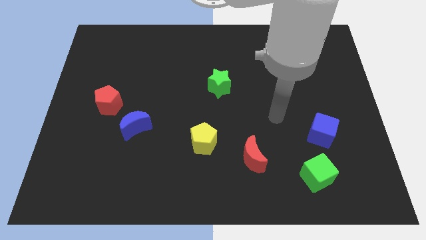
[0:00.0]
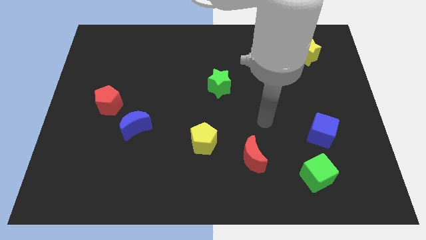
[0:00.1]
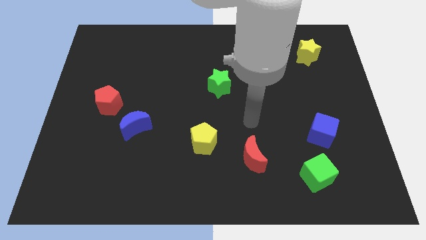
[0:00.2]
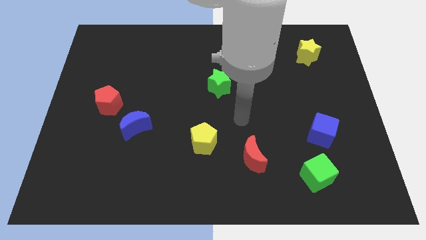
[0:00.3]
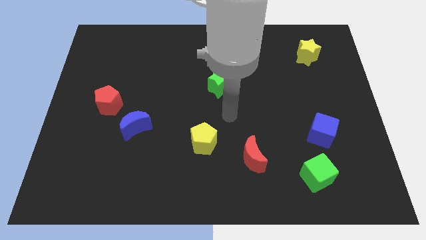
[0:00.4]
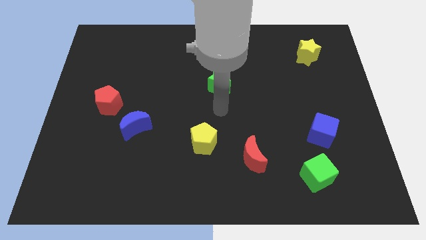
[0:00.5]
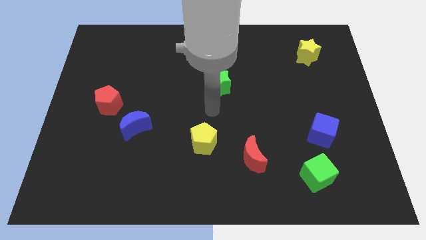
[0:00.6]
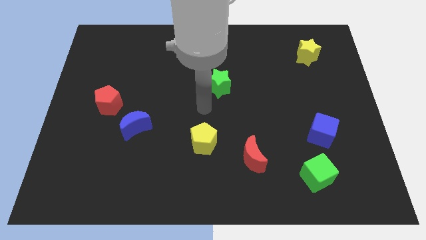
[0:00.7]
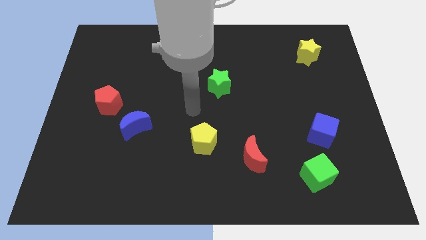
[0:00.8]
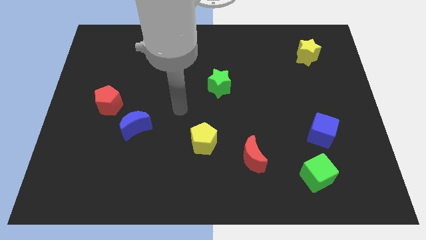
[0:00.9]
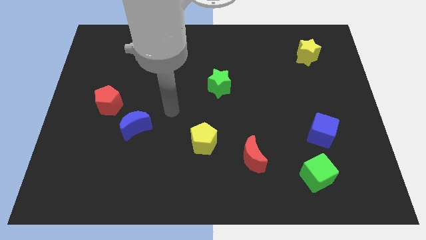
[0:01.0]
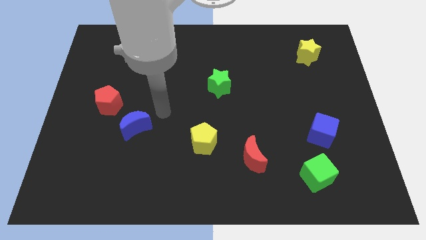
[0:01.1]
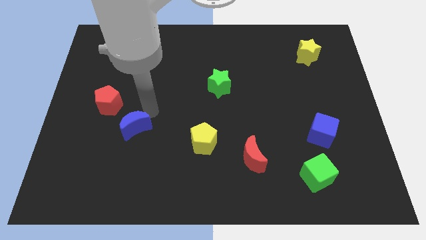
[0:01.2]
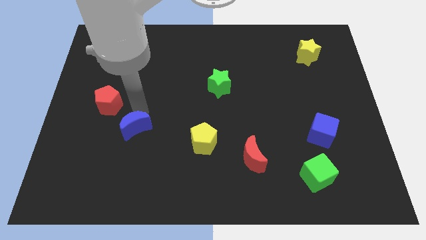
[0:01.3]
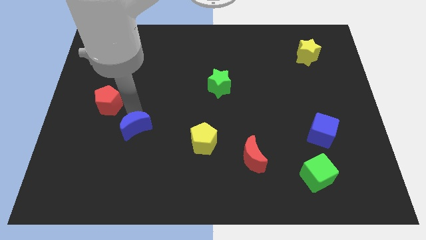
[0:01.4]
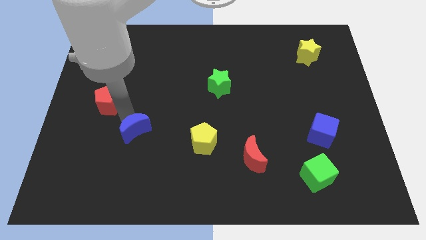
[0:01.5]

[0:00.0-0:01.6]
pull the red pentagon apart from the blue moon

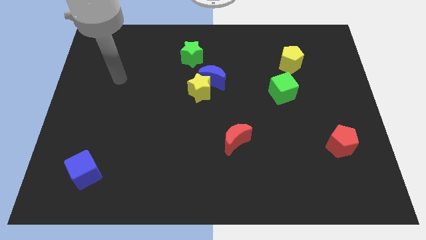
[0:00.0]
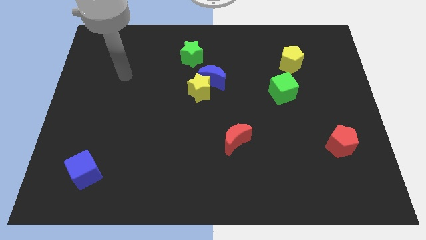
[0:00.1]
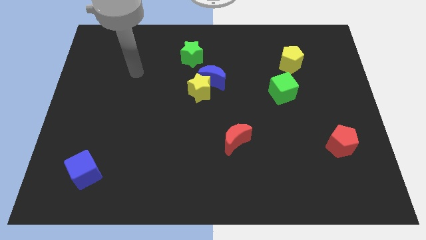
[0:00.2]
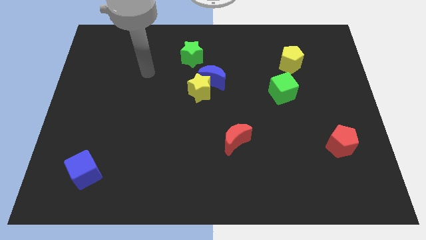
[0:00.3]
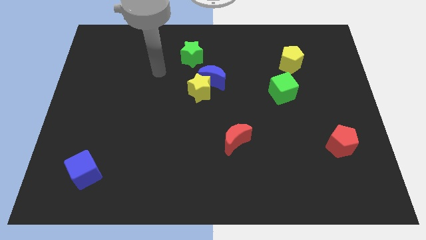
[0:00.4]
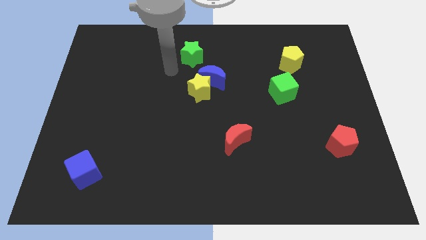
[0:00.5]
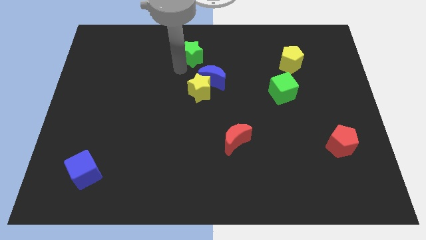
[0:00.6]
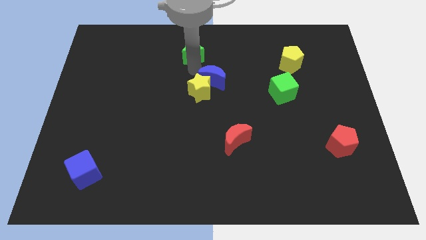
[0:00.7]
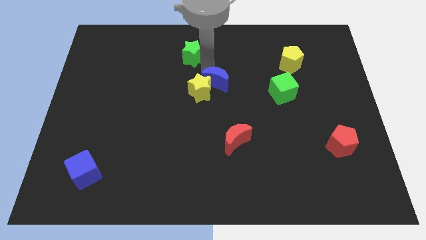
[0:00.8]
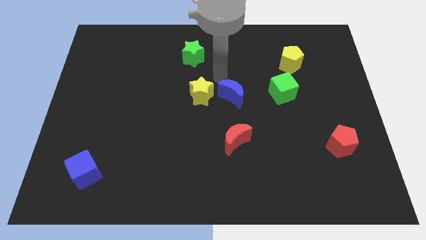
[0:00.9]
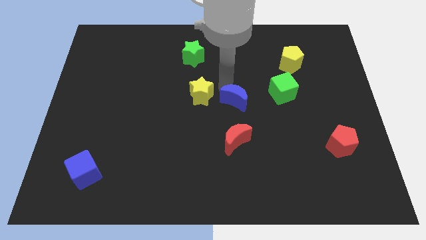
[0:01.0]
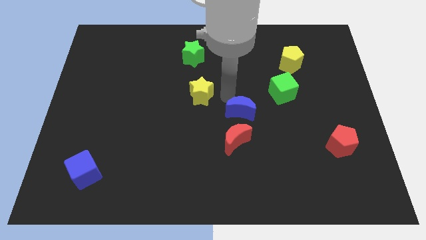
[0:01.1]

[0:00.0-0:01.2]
pull the yellow star apart from the blue moon

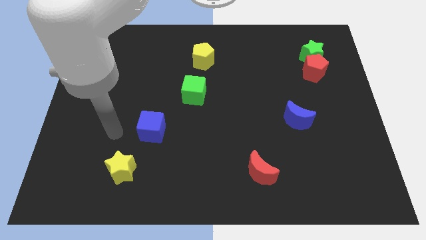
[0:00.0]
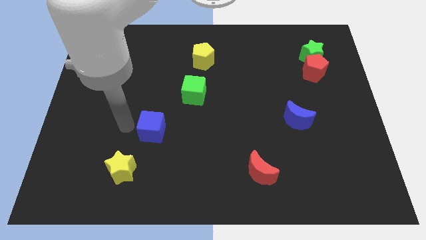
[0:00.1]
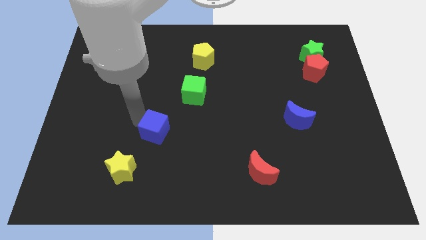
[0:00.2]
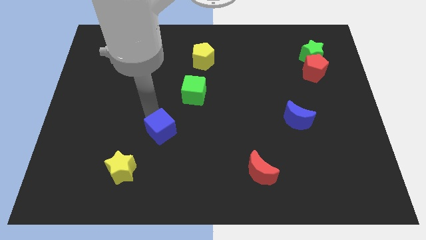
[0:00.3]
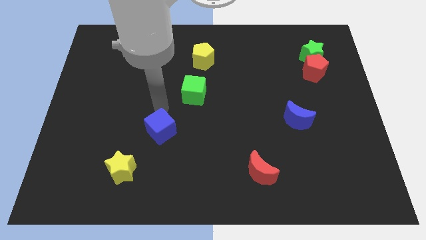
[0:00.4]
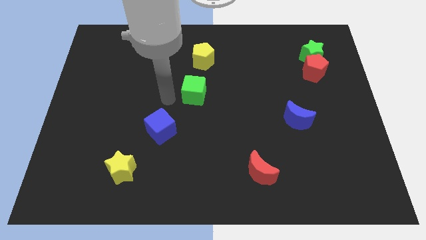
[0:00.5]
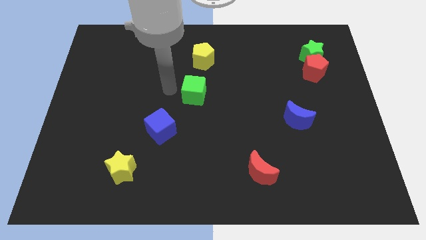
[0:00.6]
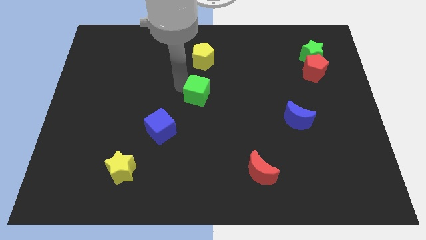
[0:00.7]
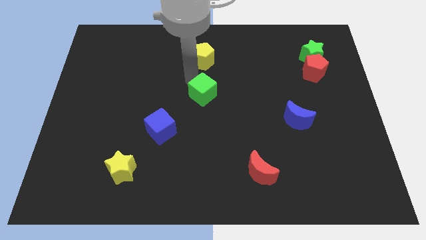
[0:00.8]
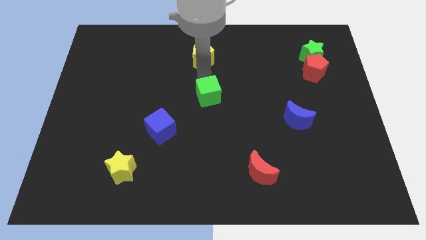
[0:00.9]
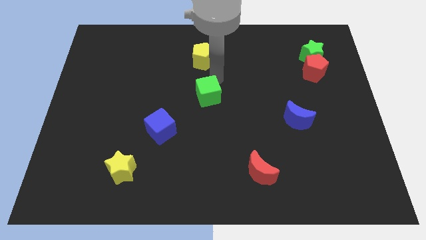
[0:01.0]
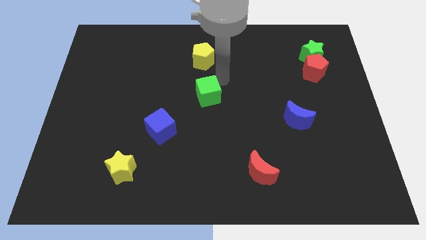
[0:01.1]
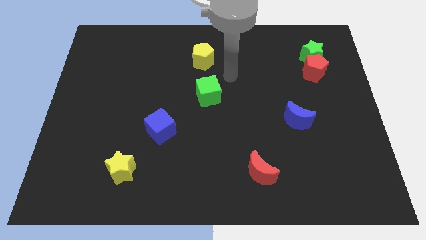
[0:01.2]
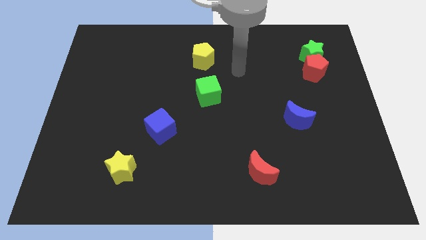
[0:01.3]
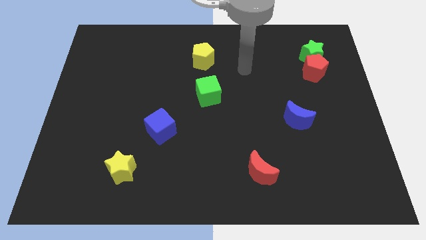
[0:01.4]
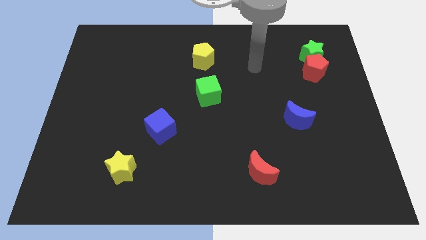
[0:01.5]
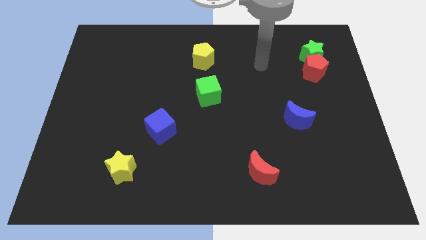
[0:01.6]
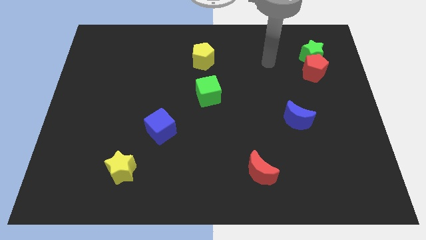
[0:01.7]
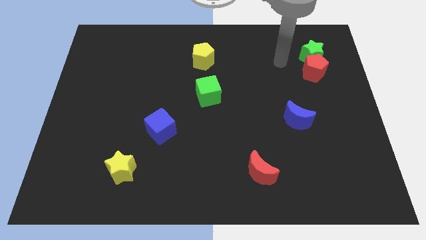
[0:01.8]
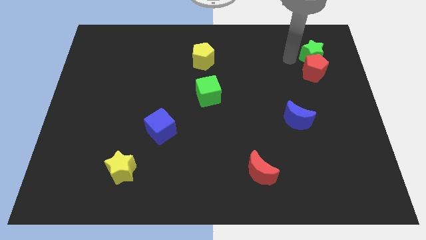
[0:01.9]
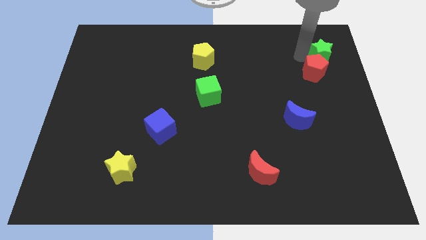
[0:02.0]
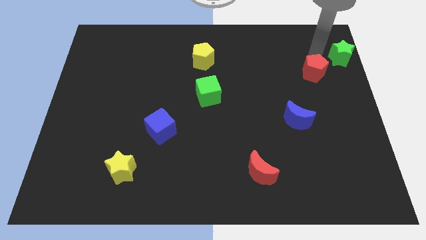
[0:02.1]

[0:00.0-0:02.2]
pull the red pentagon apart from the green star

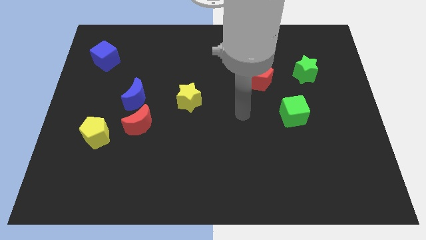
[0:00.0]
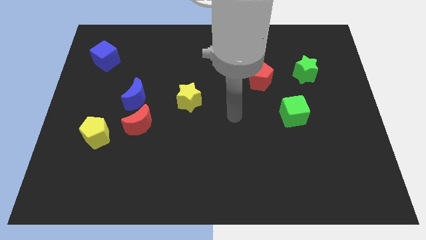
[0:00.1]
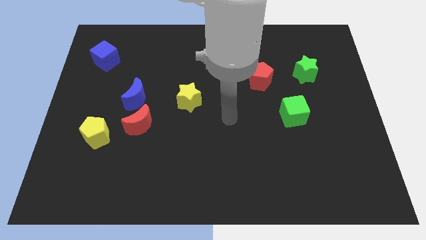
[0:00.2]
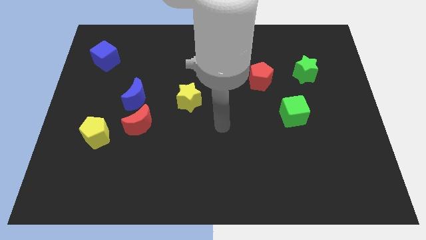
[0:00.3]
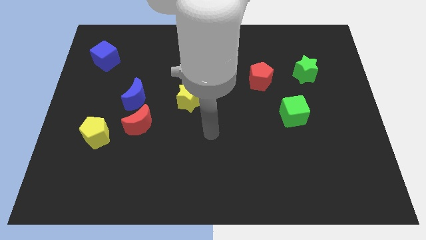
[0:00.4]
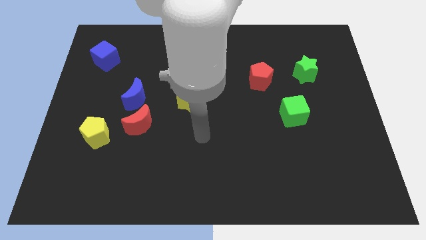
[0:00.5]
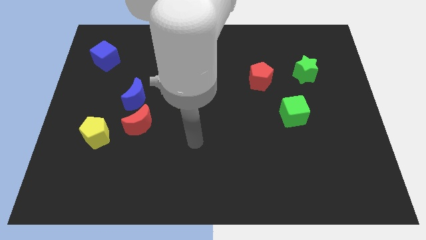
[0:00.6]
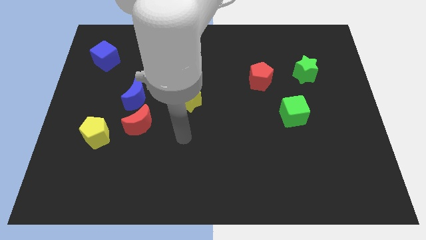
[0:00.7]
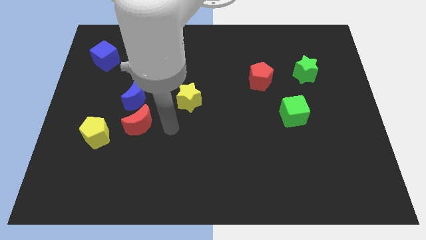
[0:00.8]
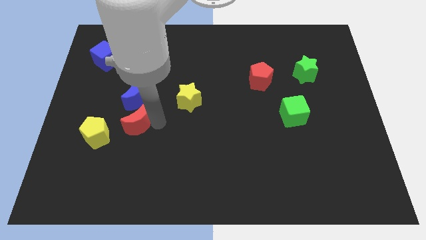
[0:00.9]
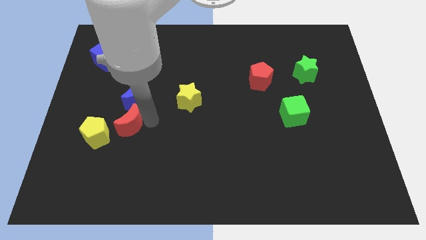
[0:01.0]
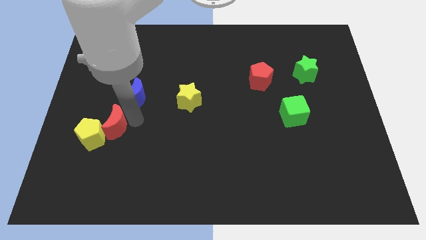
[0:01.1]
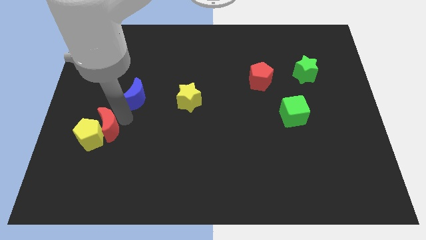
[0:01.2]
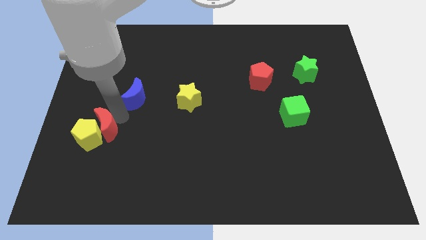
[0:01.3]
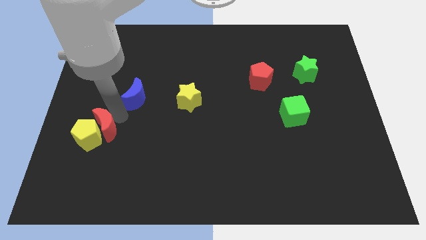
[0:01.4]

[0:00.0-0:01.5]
separate the blue moon from the red moon

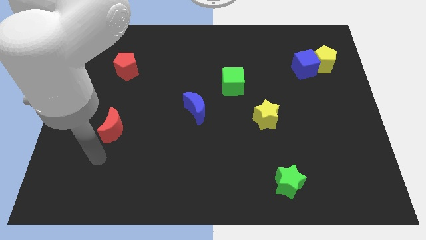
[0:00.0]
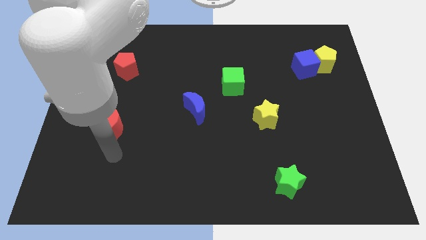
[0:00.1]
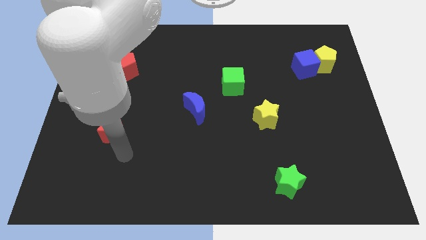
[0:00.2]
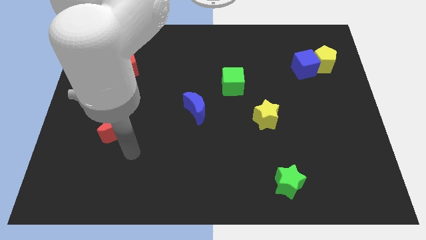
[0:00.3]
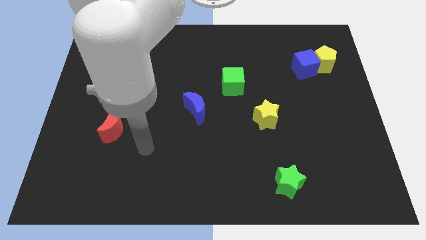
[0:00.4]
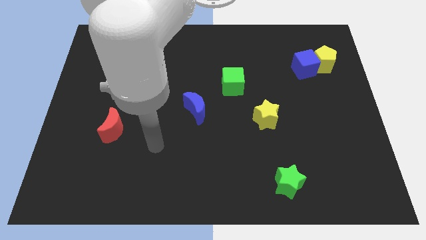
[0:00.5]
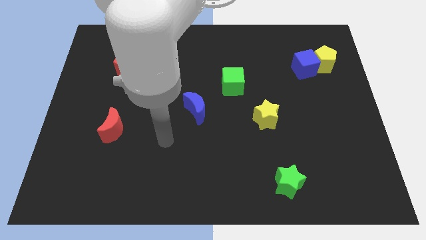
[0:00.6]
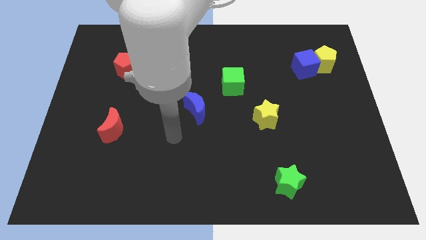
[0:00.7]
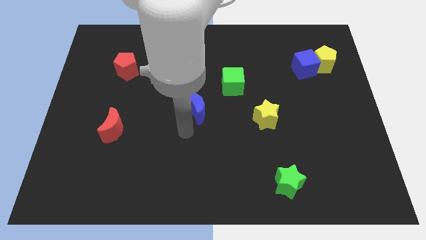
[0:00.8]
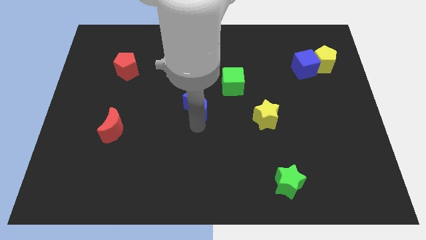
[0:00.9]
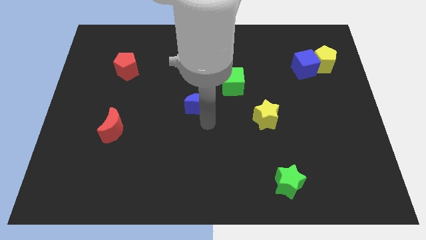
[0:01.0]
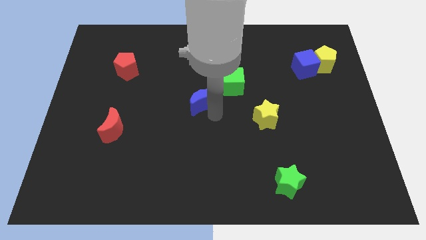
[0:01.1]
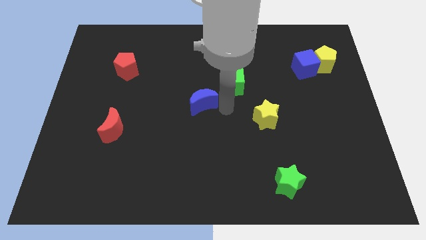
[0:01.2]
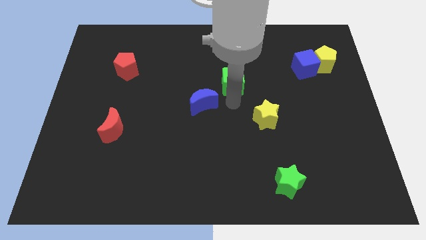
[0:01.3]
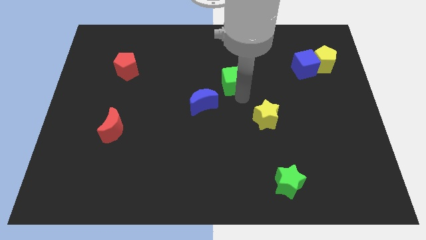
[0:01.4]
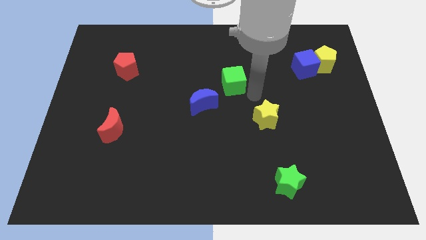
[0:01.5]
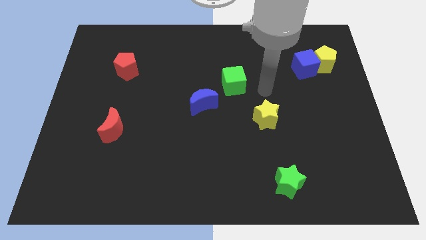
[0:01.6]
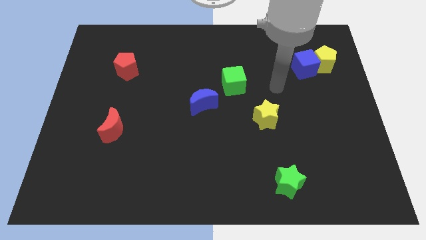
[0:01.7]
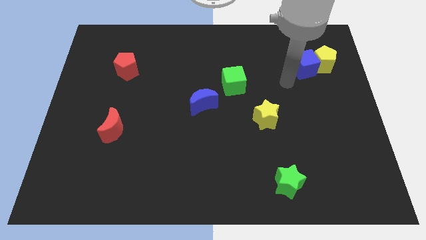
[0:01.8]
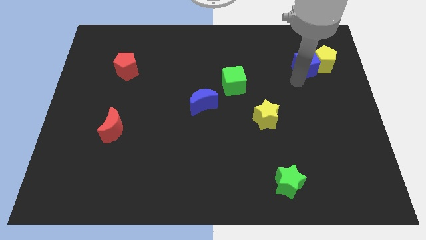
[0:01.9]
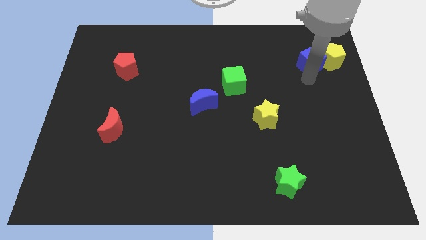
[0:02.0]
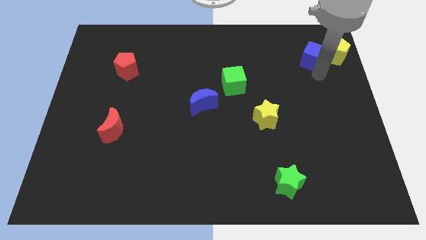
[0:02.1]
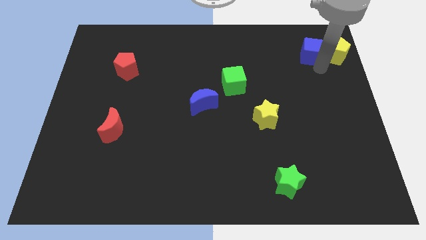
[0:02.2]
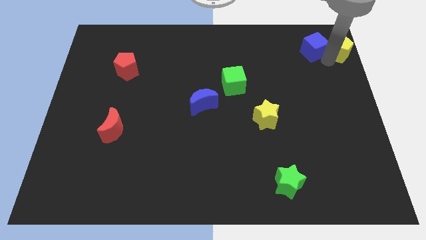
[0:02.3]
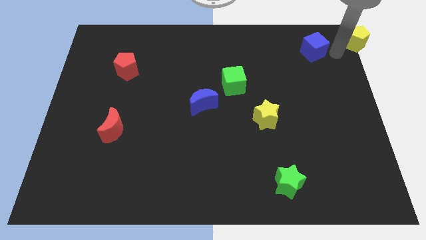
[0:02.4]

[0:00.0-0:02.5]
move the blue cube away from the yellow pentagon

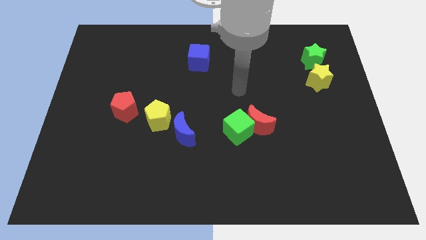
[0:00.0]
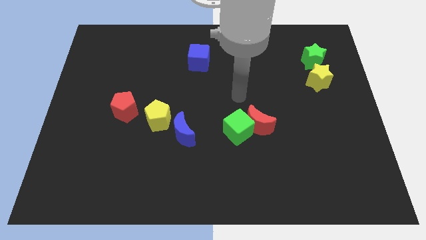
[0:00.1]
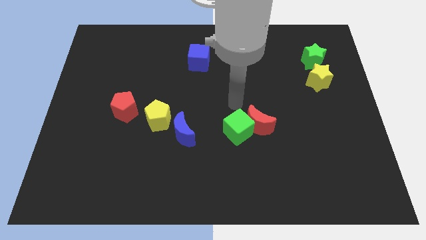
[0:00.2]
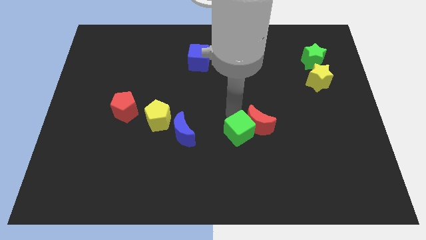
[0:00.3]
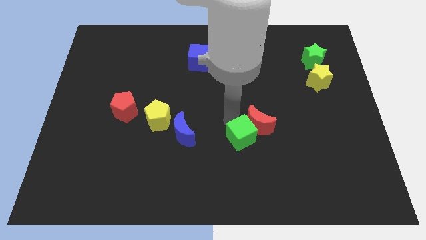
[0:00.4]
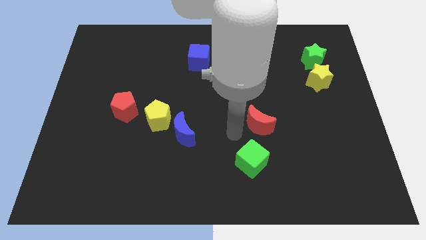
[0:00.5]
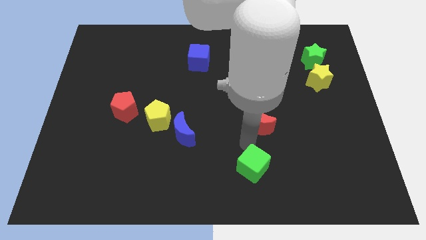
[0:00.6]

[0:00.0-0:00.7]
pull the red moon apart from the green cube
